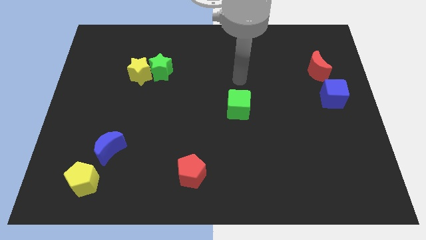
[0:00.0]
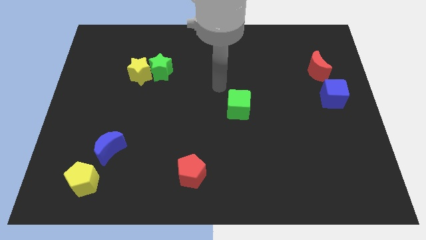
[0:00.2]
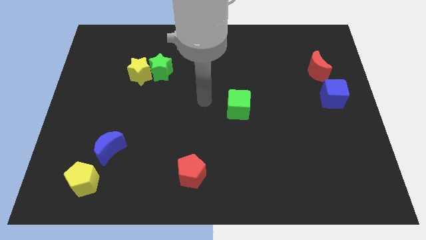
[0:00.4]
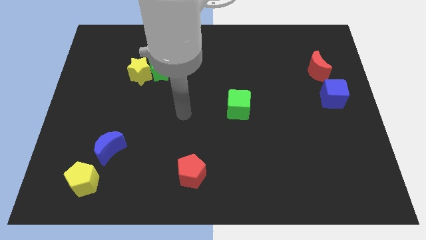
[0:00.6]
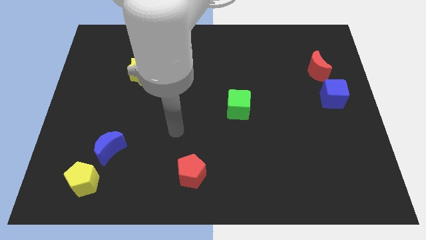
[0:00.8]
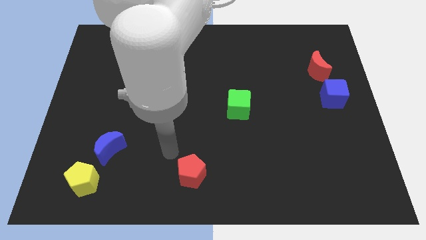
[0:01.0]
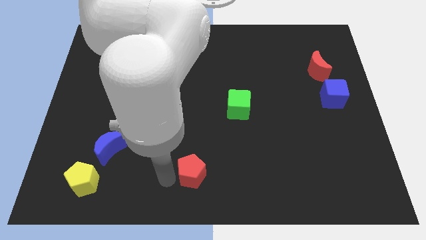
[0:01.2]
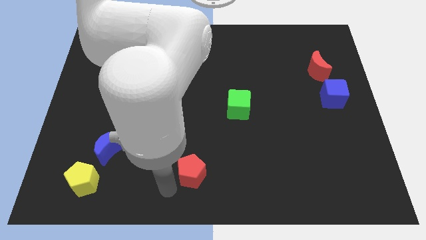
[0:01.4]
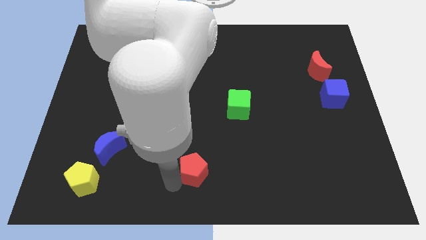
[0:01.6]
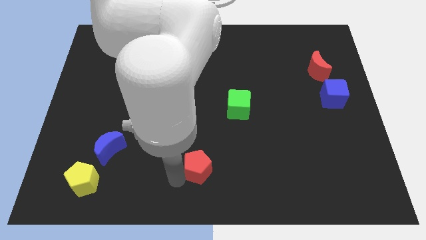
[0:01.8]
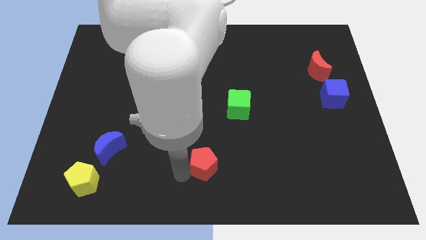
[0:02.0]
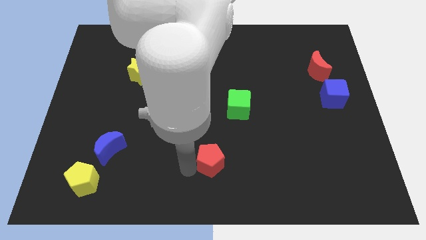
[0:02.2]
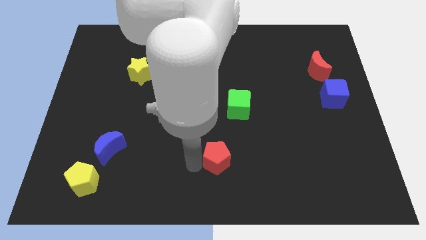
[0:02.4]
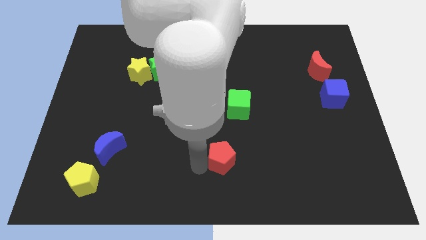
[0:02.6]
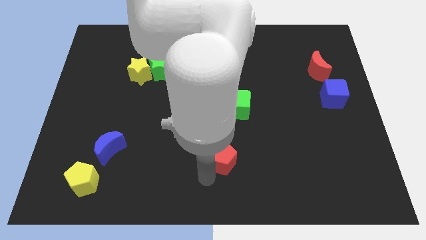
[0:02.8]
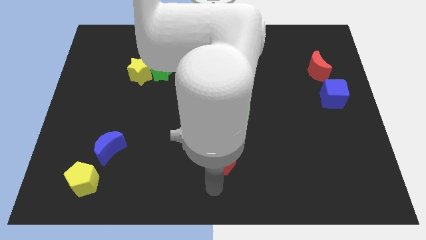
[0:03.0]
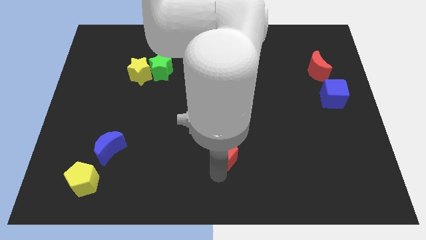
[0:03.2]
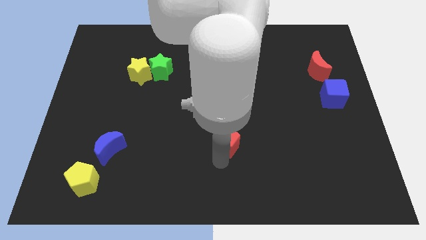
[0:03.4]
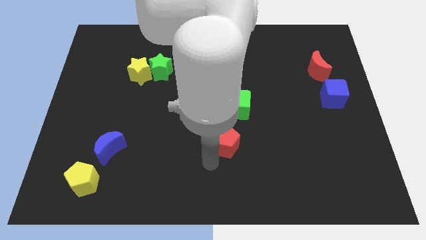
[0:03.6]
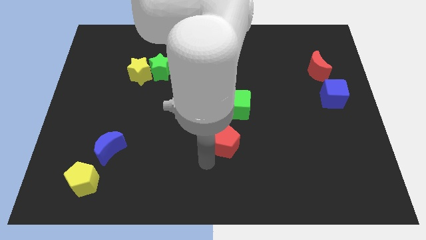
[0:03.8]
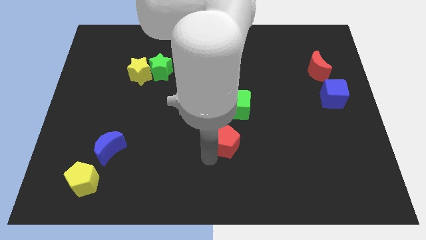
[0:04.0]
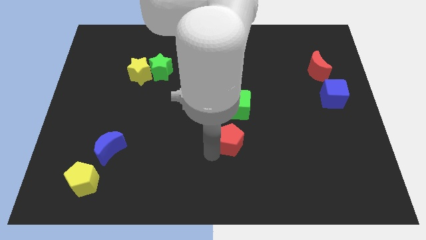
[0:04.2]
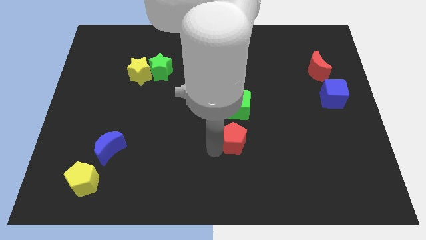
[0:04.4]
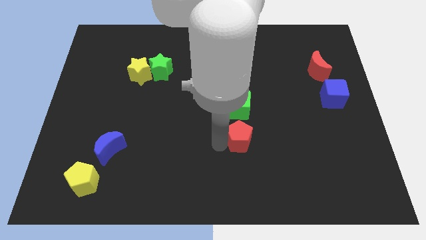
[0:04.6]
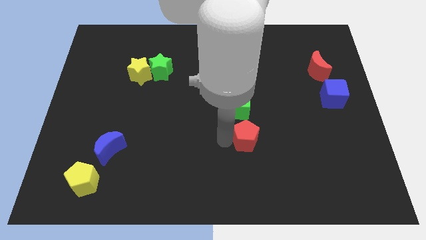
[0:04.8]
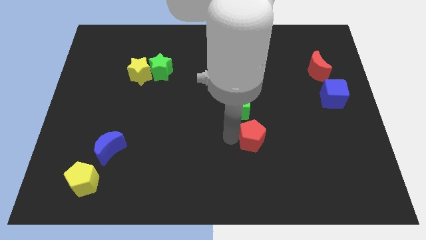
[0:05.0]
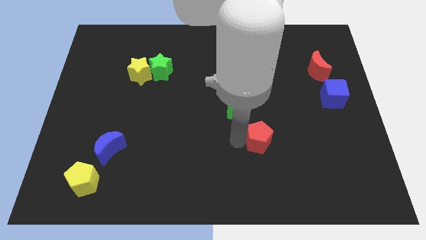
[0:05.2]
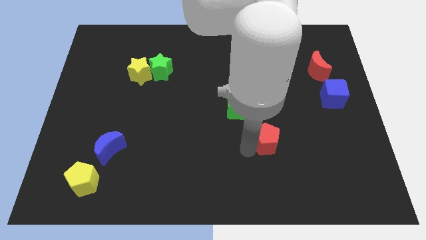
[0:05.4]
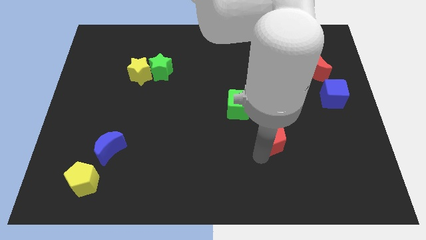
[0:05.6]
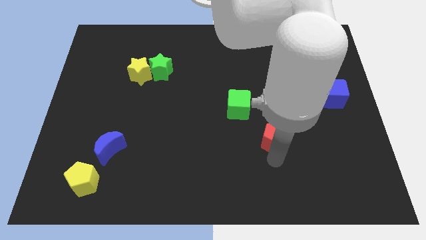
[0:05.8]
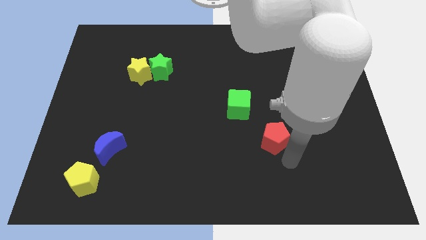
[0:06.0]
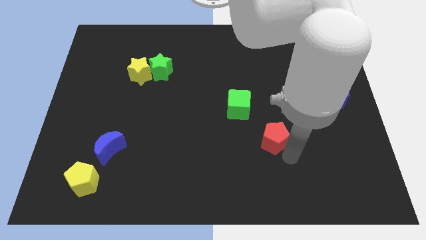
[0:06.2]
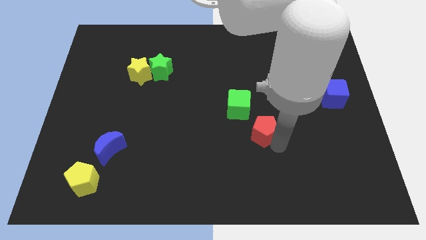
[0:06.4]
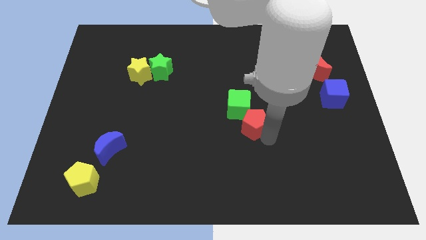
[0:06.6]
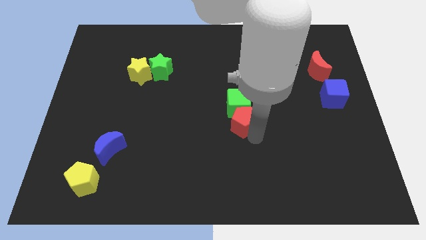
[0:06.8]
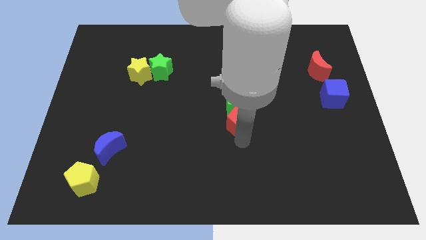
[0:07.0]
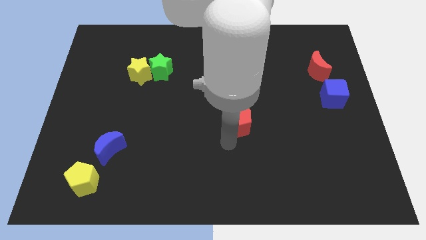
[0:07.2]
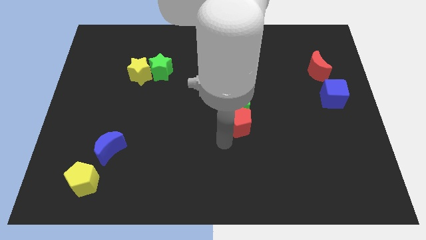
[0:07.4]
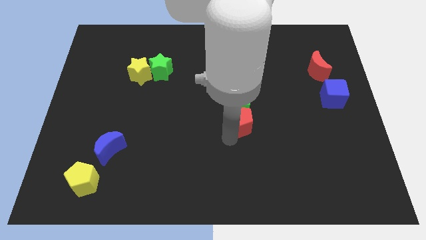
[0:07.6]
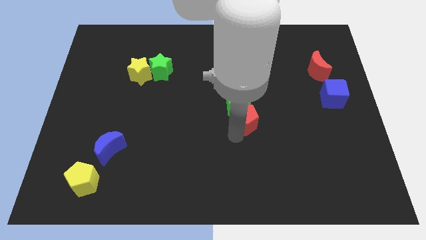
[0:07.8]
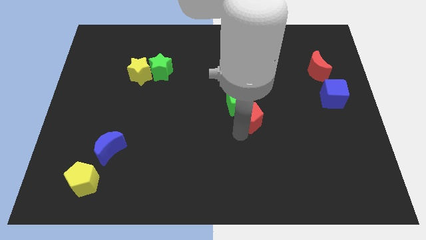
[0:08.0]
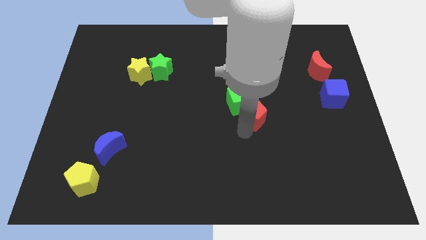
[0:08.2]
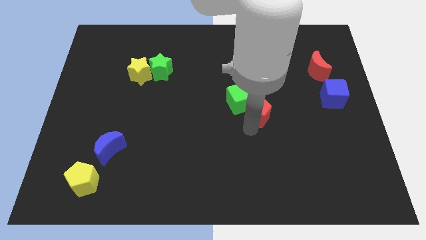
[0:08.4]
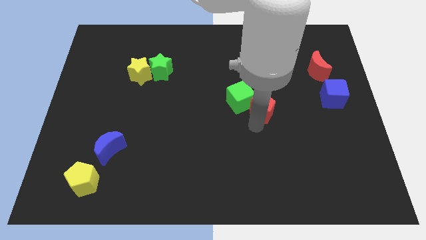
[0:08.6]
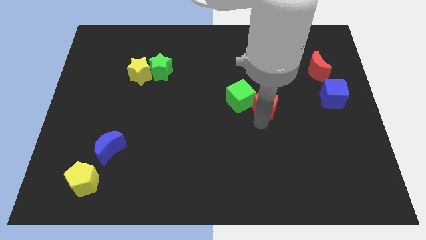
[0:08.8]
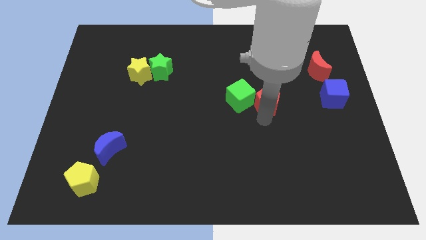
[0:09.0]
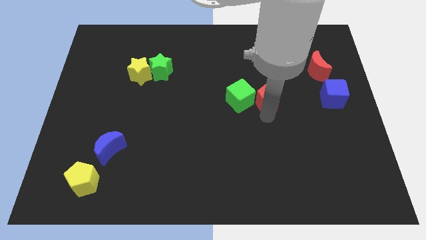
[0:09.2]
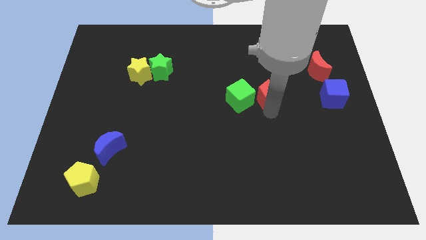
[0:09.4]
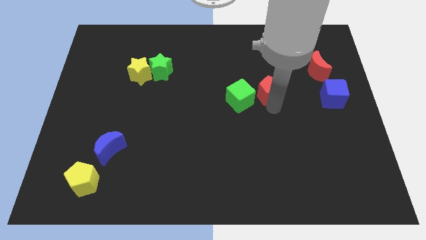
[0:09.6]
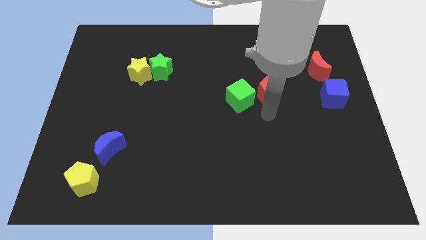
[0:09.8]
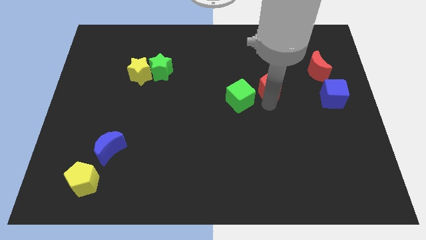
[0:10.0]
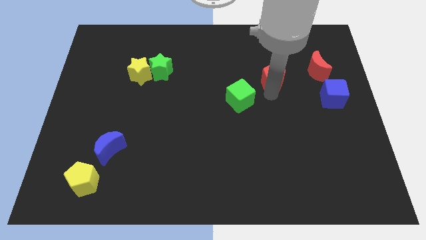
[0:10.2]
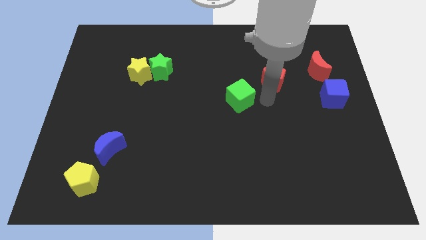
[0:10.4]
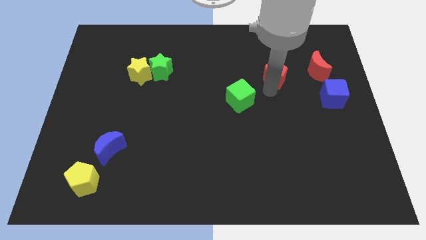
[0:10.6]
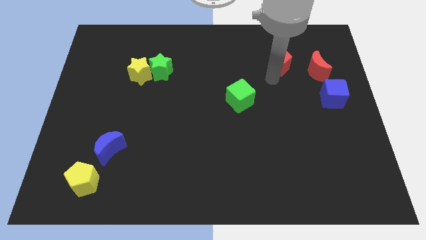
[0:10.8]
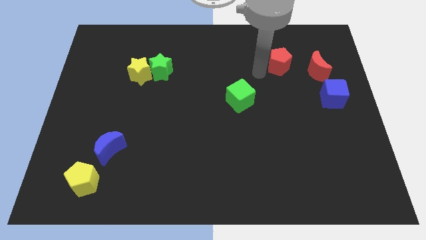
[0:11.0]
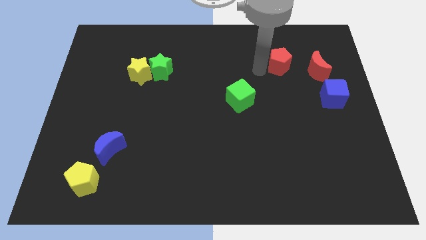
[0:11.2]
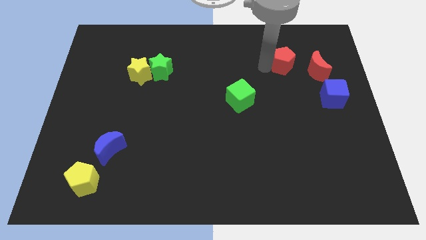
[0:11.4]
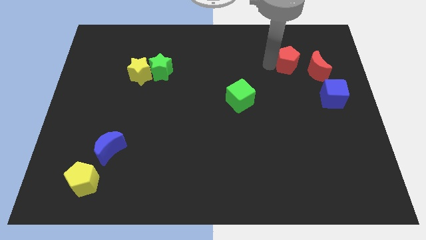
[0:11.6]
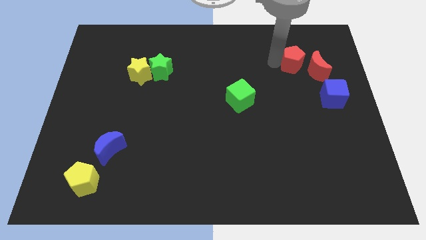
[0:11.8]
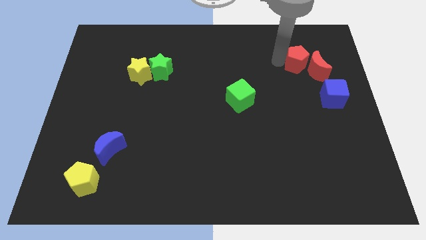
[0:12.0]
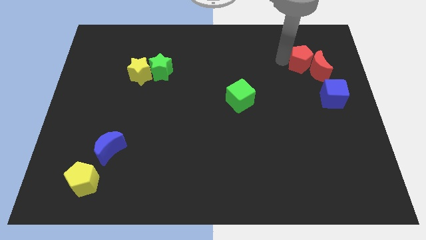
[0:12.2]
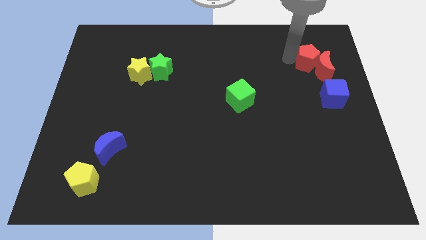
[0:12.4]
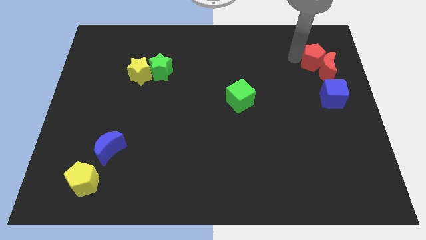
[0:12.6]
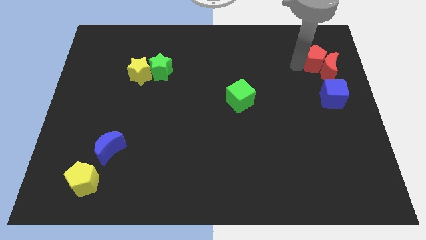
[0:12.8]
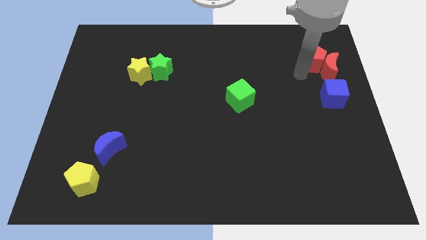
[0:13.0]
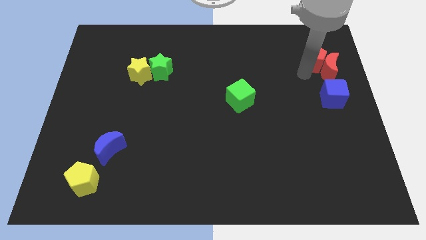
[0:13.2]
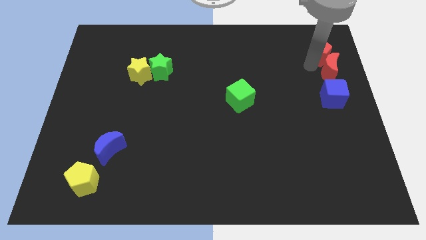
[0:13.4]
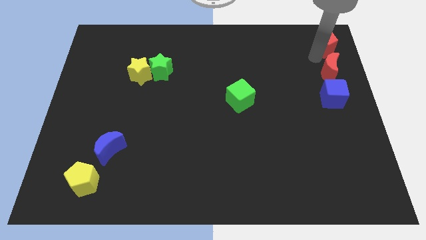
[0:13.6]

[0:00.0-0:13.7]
move the red pentagon to the top right corner
